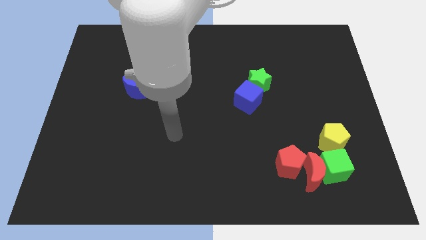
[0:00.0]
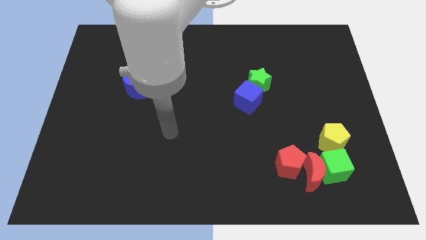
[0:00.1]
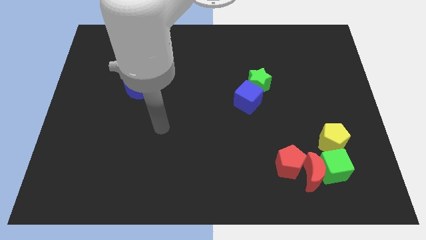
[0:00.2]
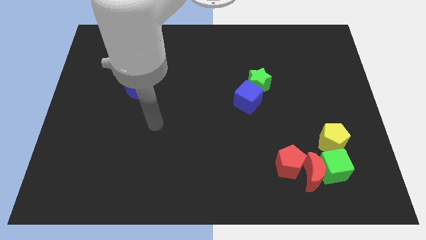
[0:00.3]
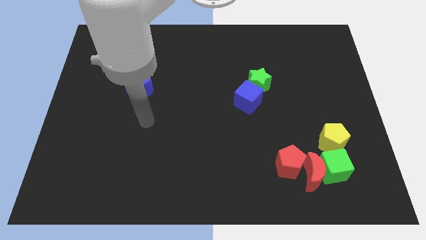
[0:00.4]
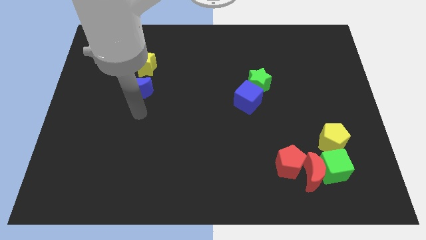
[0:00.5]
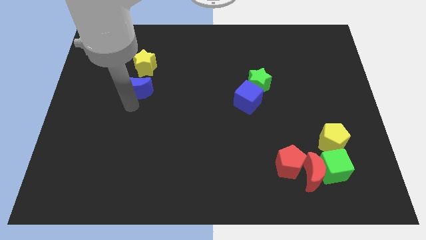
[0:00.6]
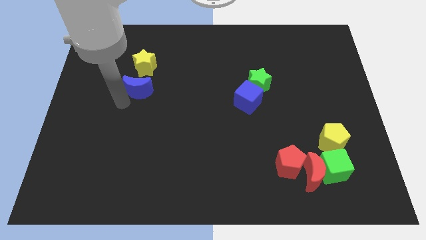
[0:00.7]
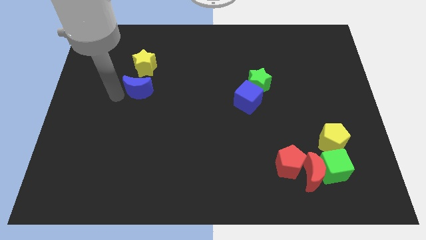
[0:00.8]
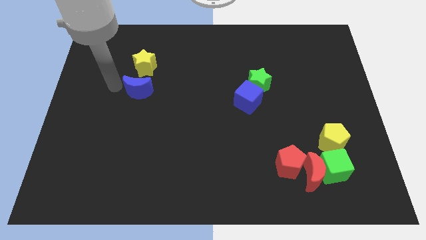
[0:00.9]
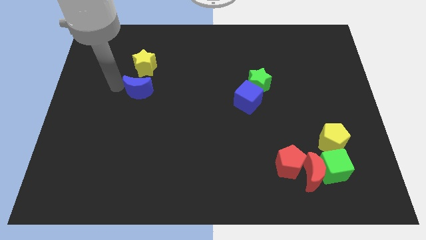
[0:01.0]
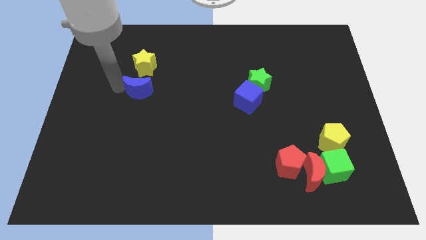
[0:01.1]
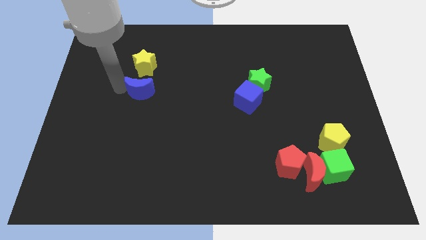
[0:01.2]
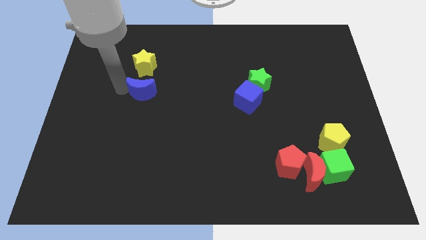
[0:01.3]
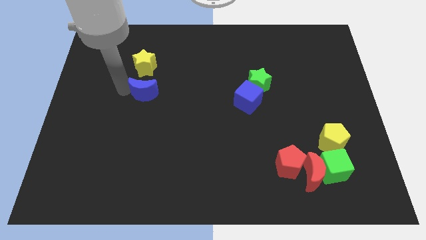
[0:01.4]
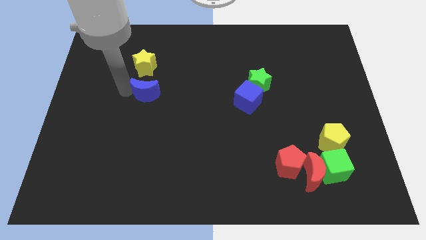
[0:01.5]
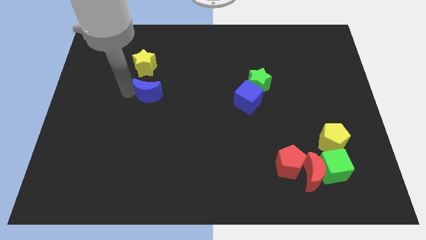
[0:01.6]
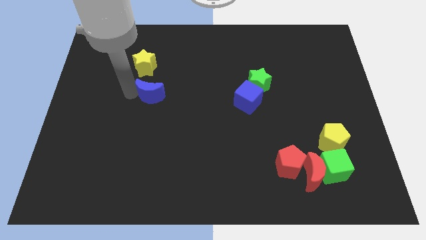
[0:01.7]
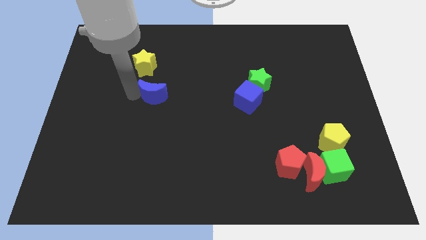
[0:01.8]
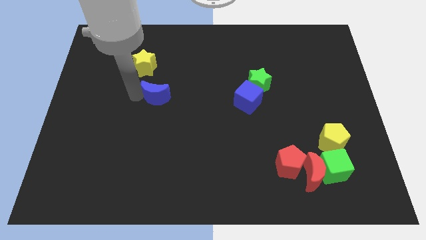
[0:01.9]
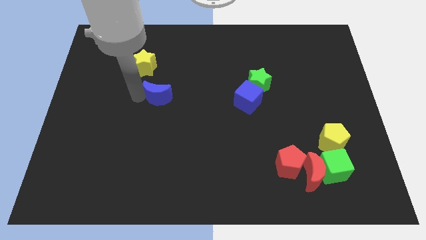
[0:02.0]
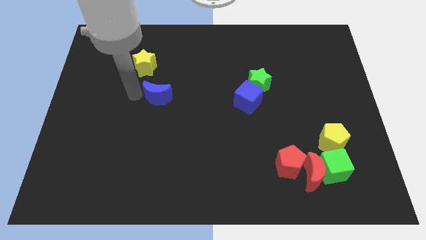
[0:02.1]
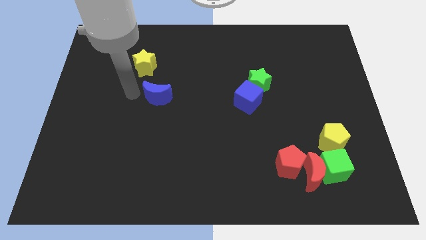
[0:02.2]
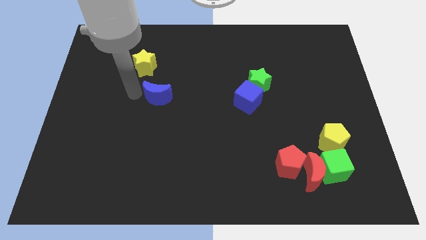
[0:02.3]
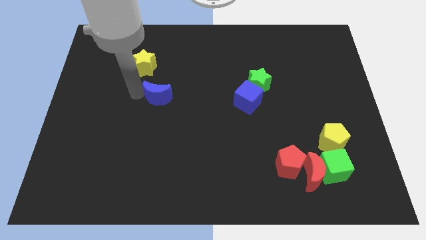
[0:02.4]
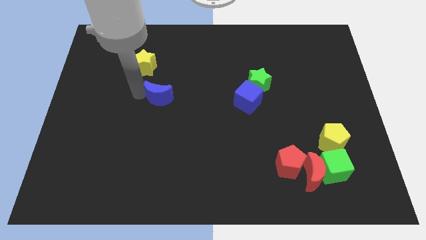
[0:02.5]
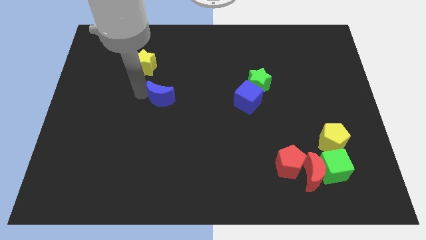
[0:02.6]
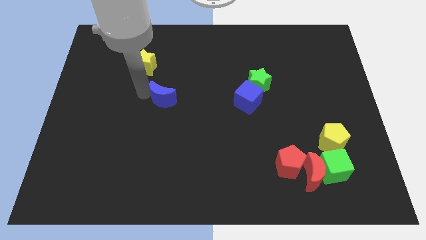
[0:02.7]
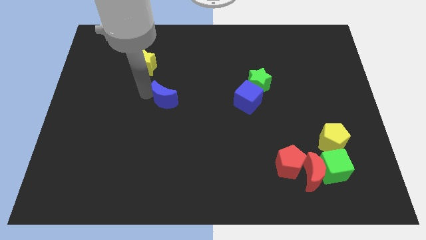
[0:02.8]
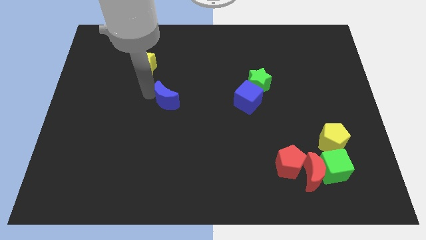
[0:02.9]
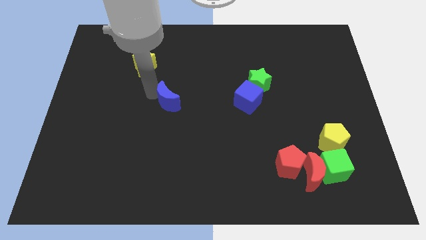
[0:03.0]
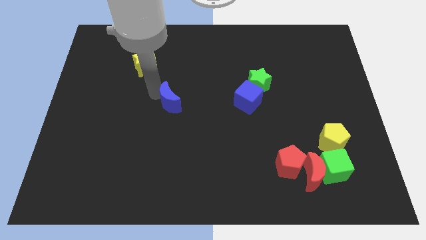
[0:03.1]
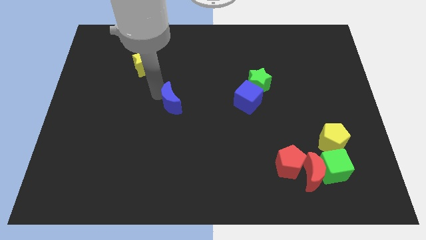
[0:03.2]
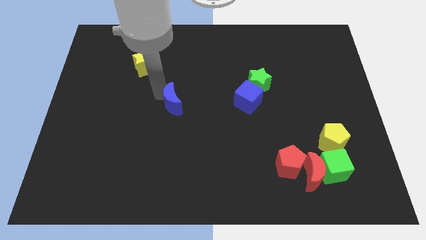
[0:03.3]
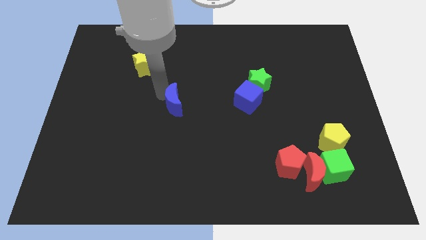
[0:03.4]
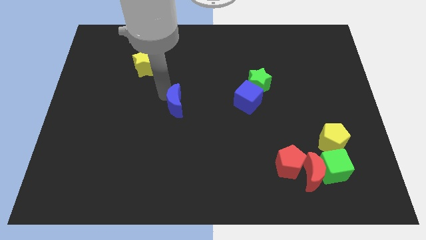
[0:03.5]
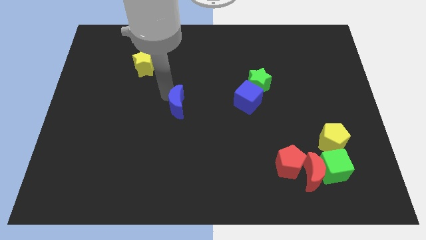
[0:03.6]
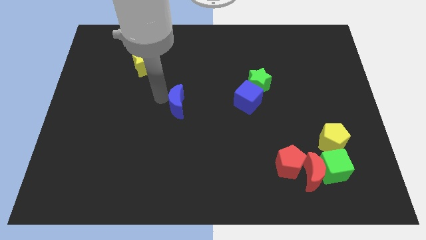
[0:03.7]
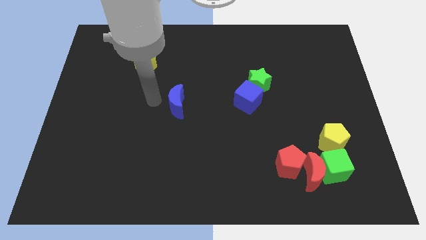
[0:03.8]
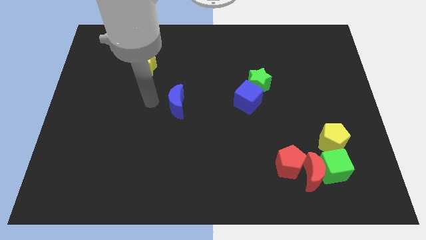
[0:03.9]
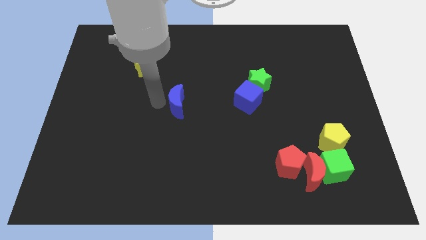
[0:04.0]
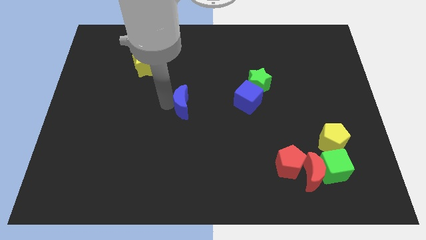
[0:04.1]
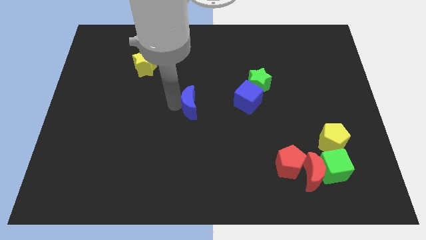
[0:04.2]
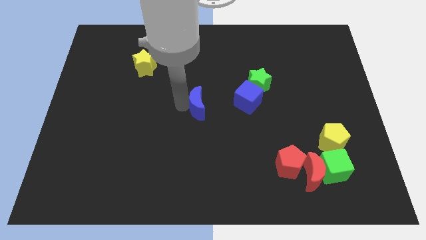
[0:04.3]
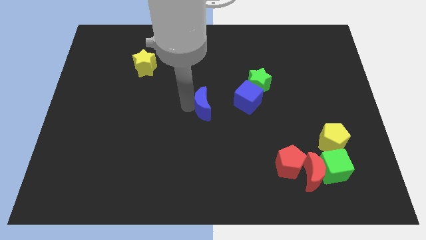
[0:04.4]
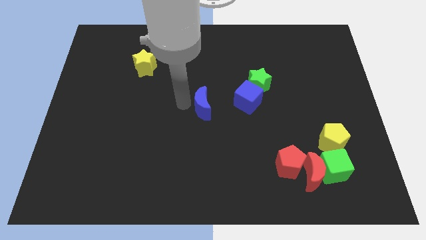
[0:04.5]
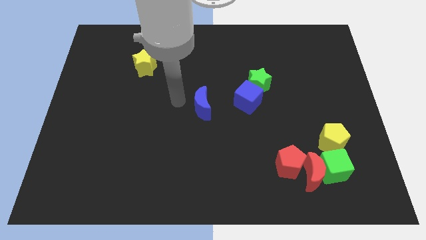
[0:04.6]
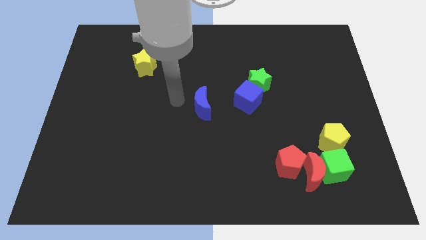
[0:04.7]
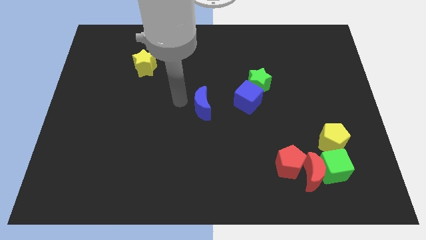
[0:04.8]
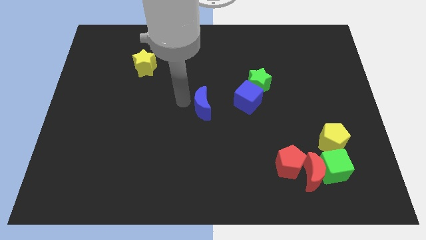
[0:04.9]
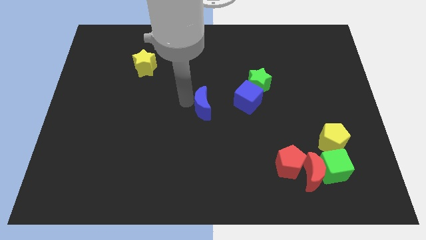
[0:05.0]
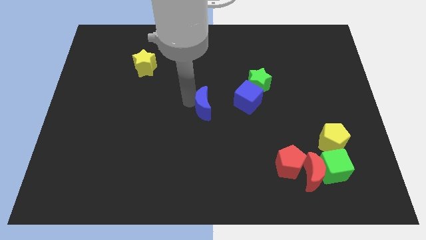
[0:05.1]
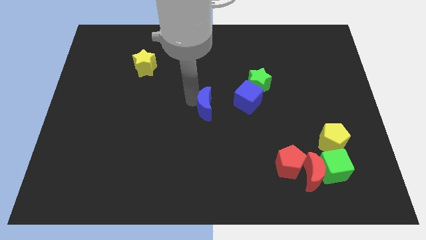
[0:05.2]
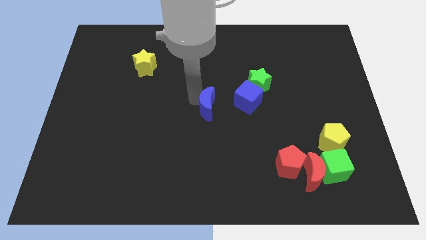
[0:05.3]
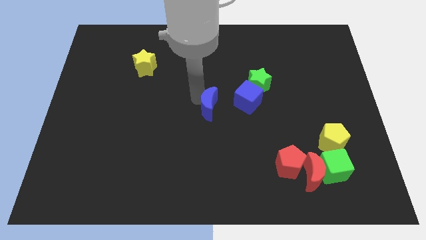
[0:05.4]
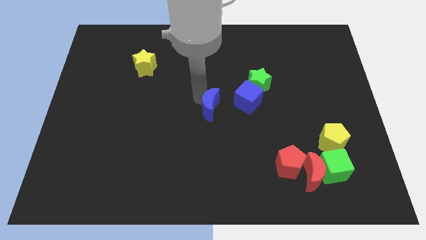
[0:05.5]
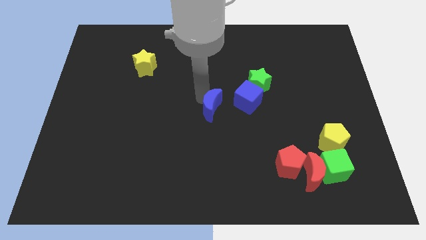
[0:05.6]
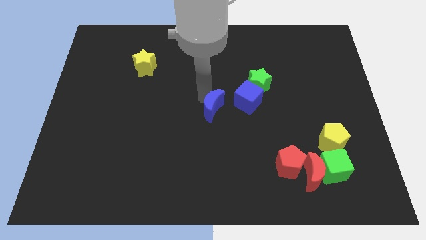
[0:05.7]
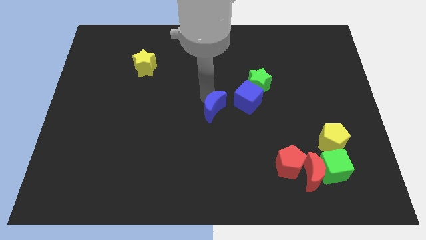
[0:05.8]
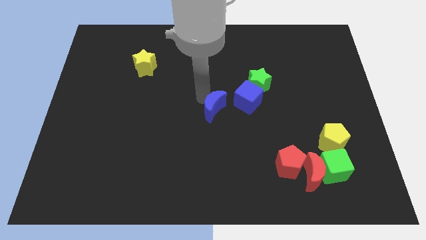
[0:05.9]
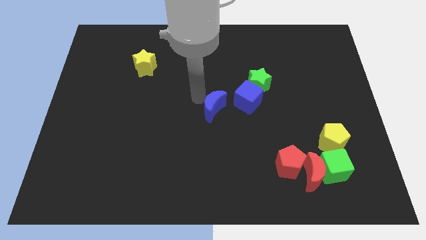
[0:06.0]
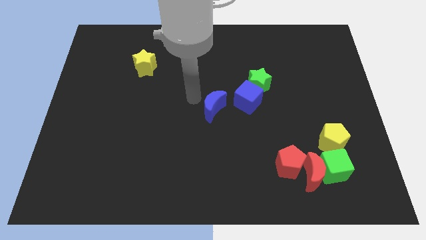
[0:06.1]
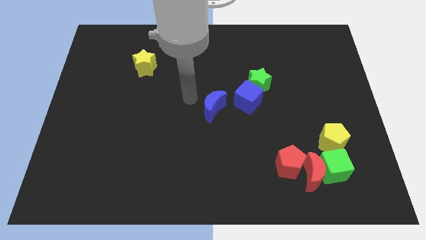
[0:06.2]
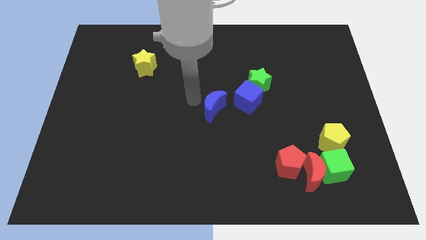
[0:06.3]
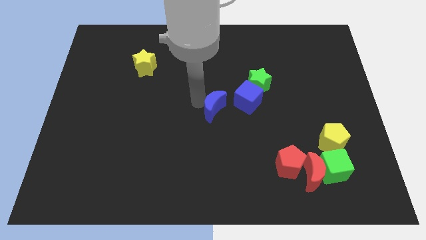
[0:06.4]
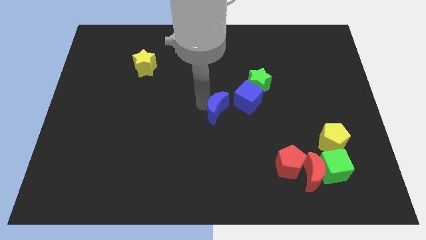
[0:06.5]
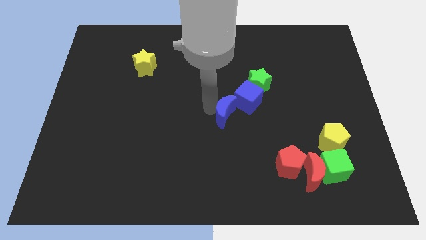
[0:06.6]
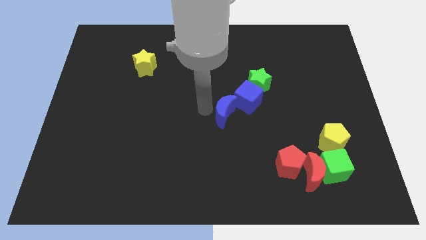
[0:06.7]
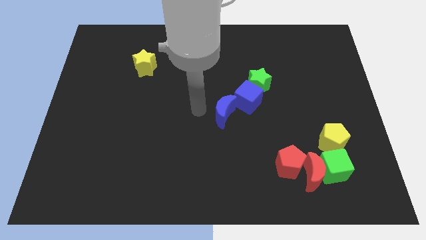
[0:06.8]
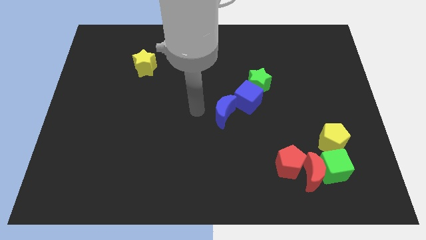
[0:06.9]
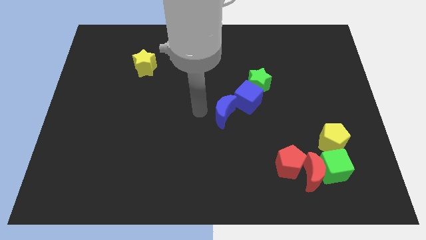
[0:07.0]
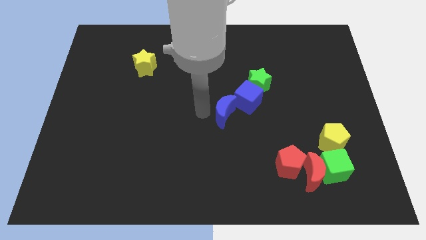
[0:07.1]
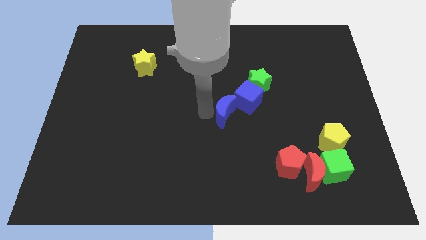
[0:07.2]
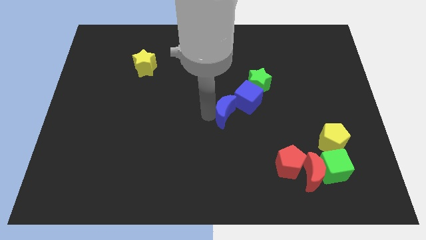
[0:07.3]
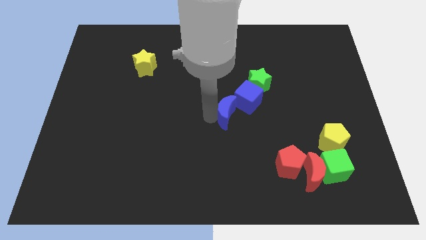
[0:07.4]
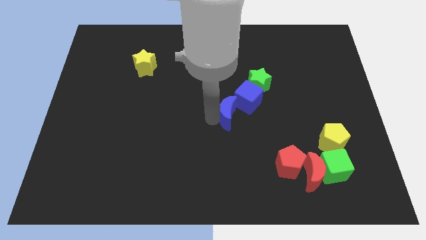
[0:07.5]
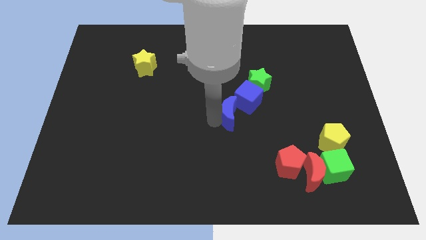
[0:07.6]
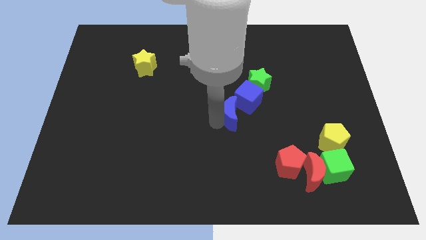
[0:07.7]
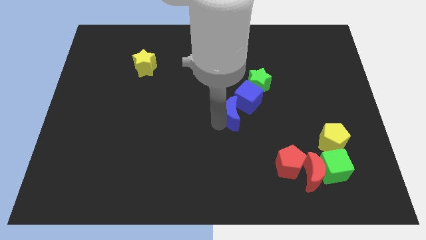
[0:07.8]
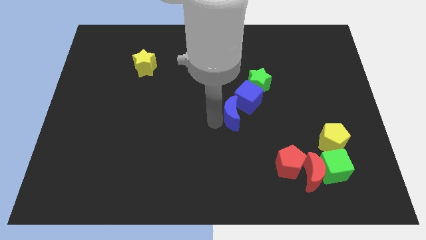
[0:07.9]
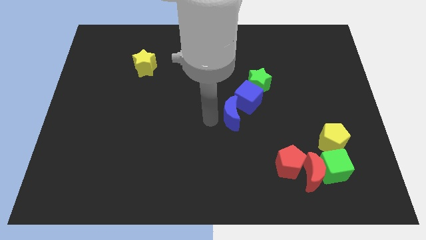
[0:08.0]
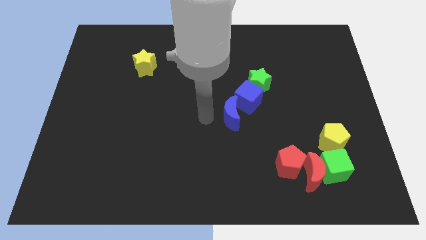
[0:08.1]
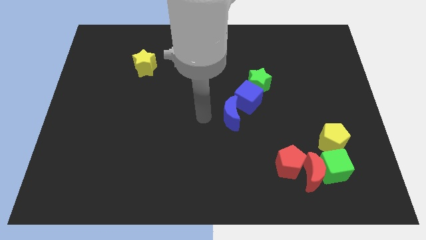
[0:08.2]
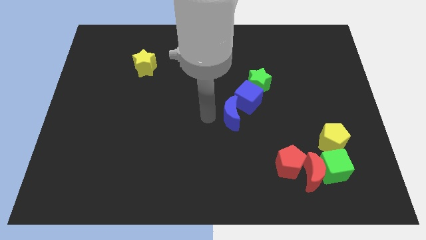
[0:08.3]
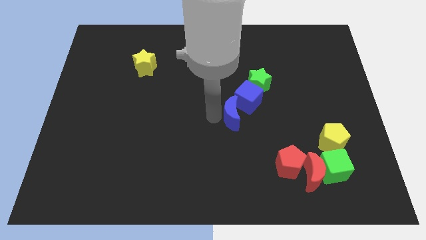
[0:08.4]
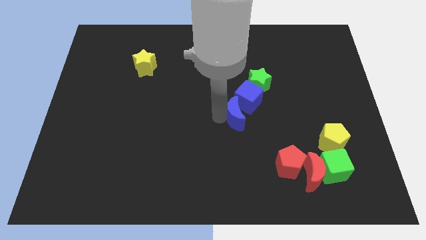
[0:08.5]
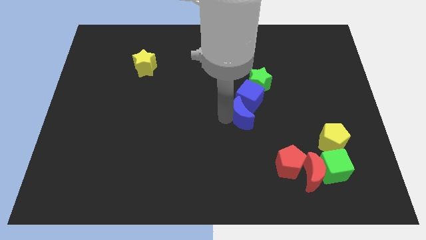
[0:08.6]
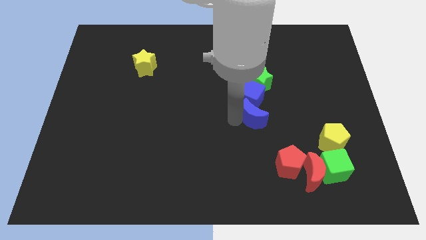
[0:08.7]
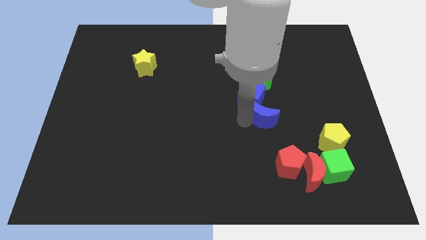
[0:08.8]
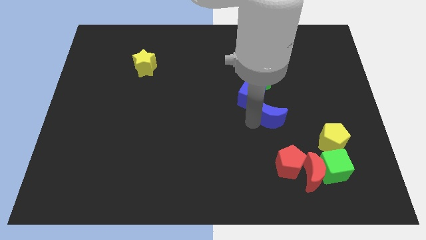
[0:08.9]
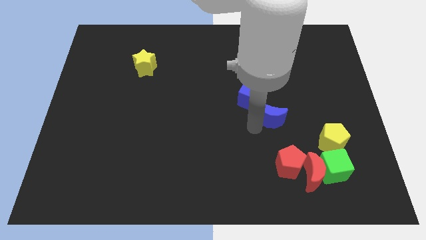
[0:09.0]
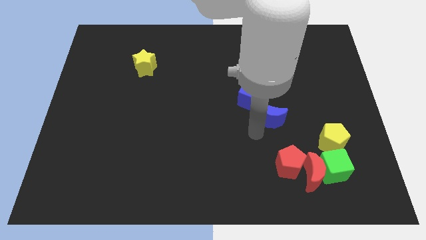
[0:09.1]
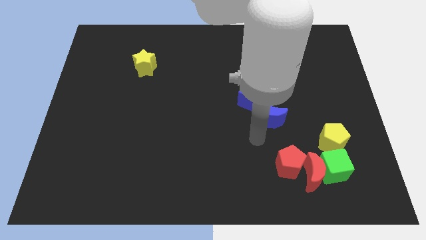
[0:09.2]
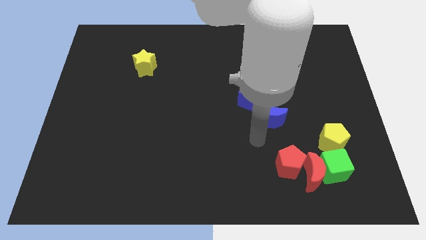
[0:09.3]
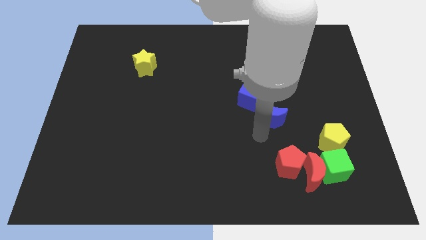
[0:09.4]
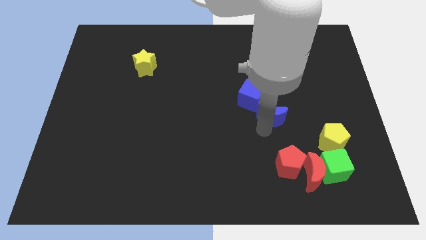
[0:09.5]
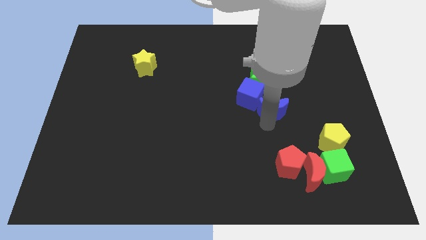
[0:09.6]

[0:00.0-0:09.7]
push the blue moon diagonally down and to the right of the green star
